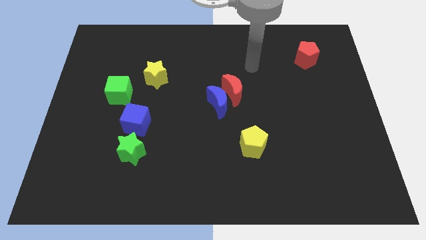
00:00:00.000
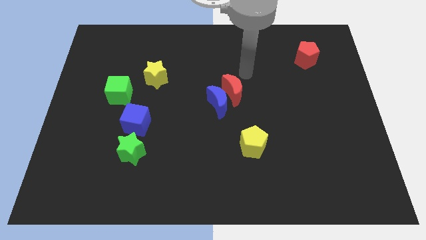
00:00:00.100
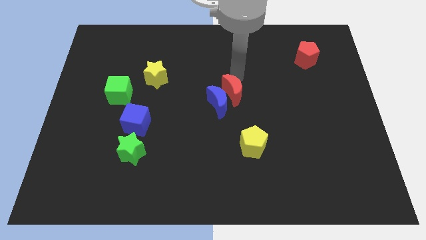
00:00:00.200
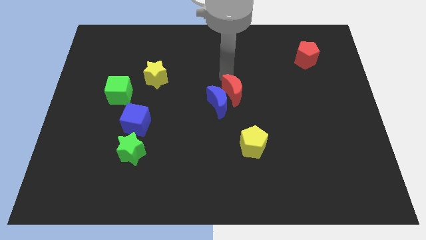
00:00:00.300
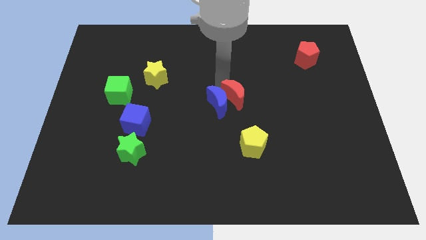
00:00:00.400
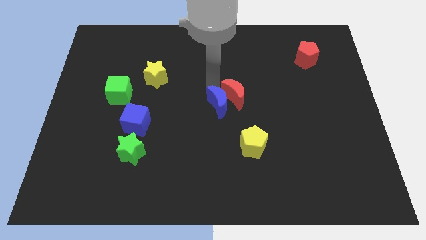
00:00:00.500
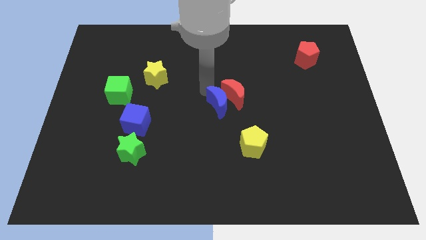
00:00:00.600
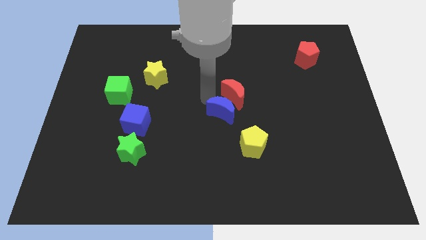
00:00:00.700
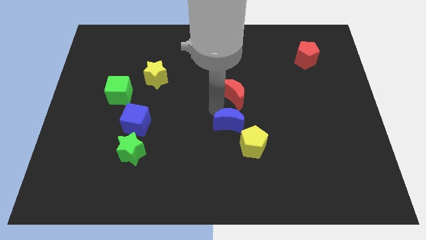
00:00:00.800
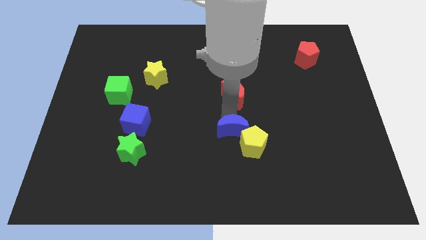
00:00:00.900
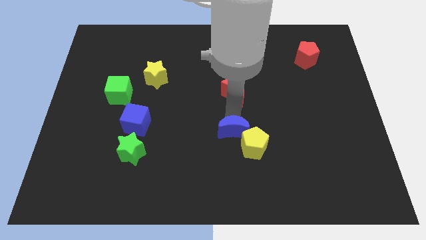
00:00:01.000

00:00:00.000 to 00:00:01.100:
move the red moon away from the blue moon

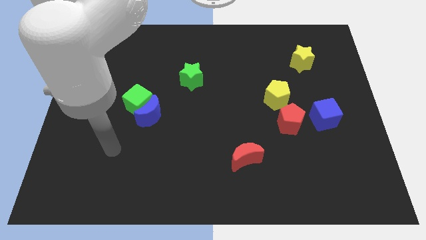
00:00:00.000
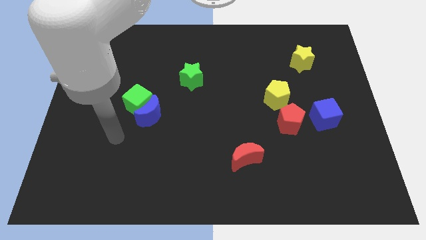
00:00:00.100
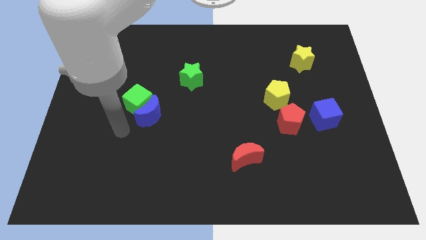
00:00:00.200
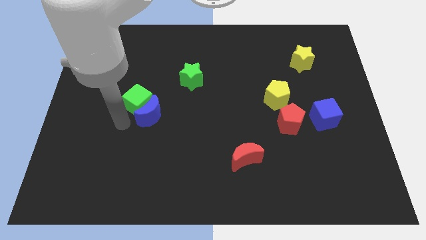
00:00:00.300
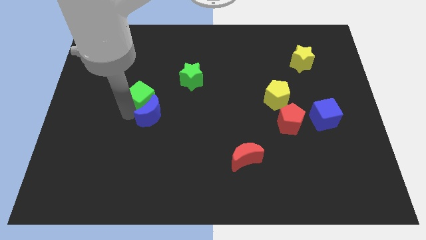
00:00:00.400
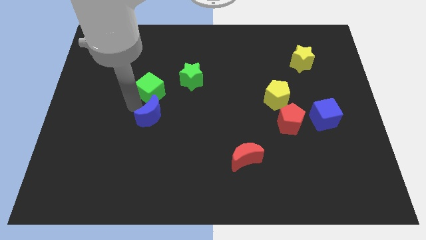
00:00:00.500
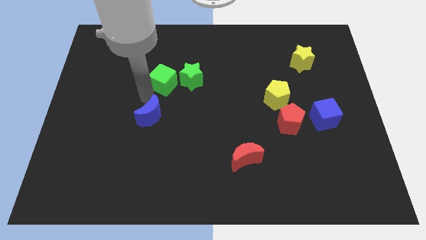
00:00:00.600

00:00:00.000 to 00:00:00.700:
move the blue moon away from the green cube

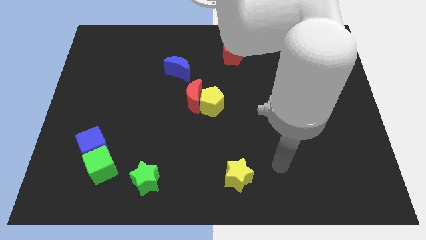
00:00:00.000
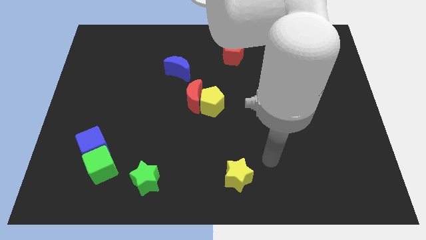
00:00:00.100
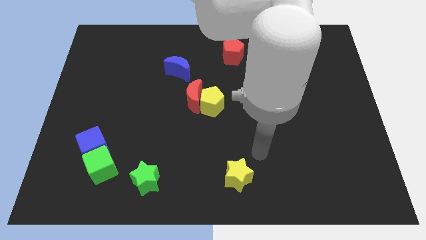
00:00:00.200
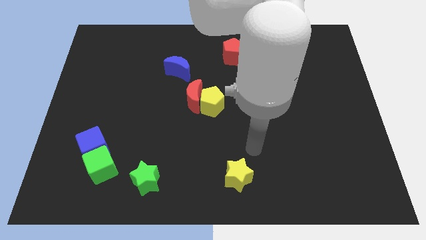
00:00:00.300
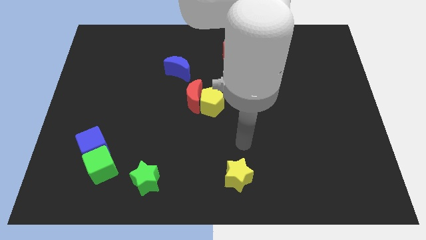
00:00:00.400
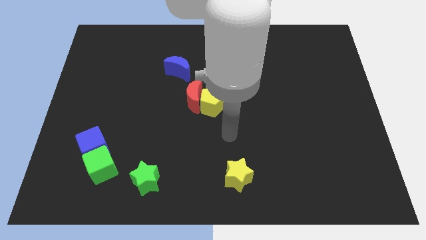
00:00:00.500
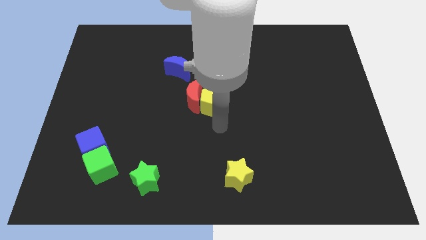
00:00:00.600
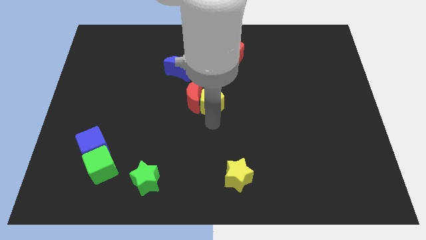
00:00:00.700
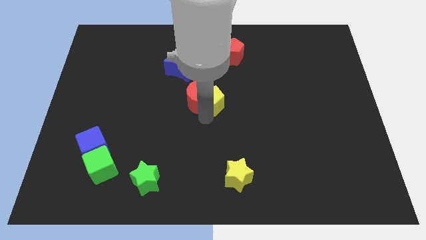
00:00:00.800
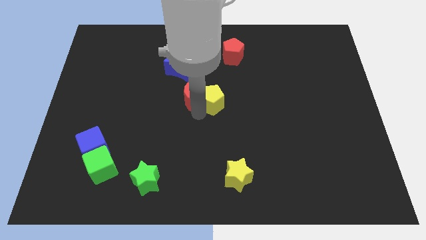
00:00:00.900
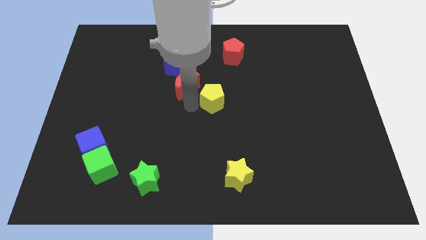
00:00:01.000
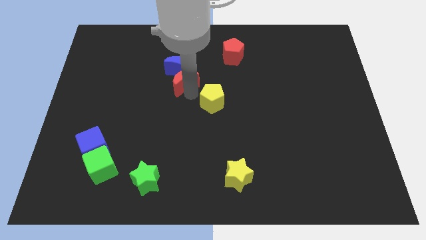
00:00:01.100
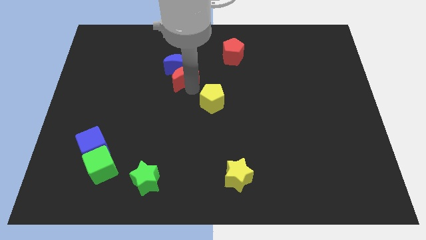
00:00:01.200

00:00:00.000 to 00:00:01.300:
pull the yellow pentagon apart from the red moon

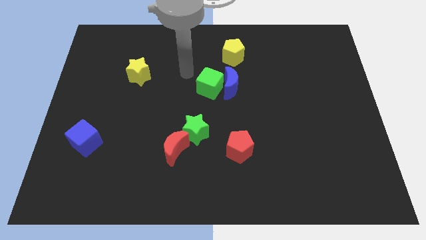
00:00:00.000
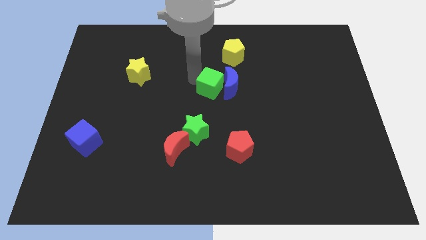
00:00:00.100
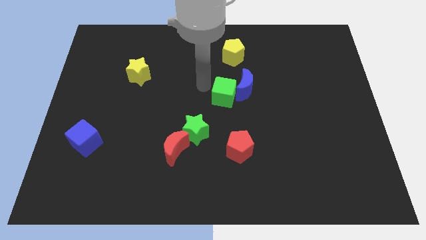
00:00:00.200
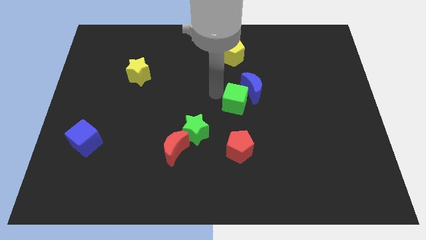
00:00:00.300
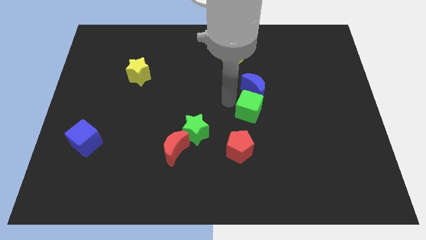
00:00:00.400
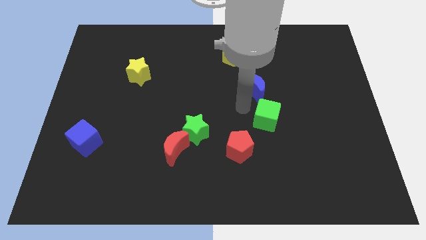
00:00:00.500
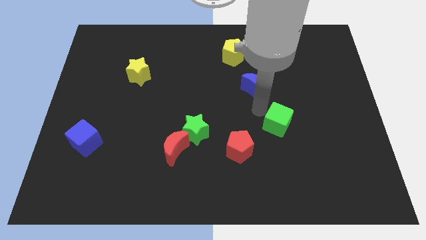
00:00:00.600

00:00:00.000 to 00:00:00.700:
separate the blue moon from the green cube

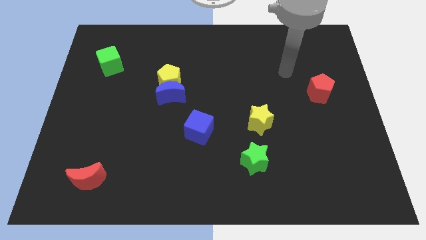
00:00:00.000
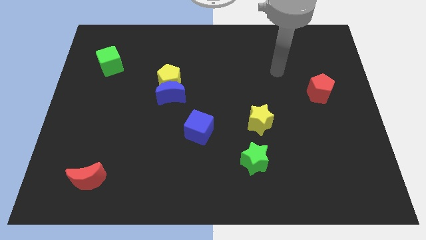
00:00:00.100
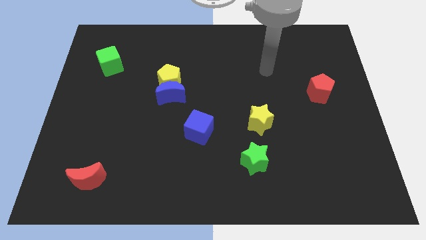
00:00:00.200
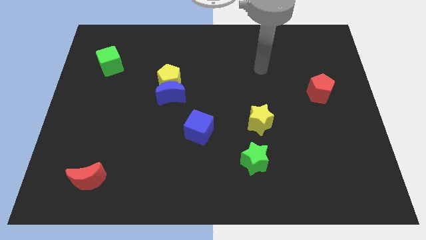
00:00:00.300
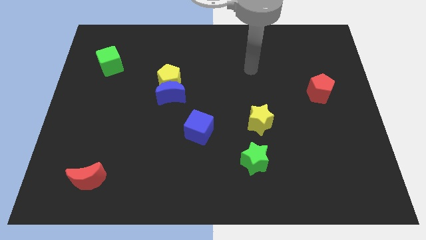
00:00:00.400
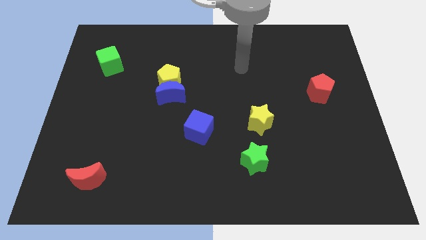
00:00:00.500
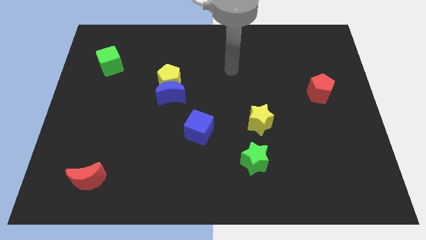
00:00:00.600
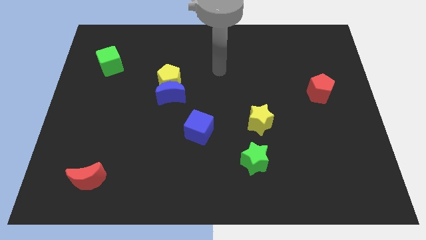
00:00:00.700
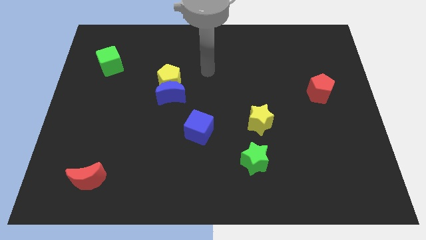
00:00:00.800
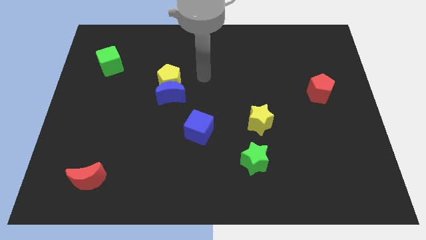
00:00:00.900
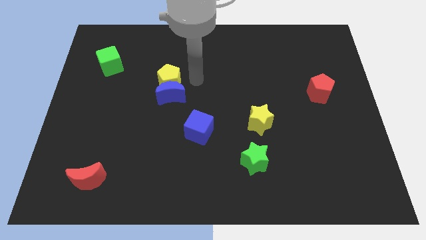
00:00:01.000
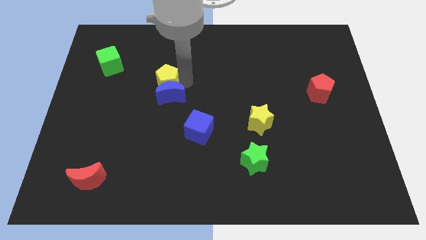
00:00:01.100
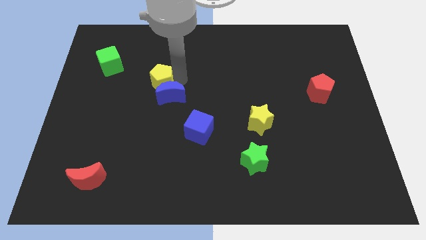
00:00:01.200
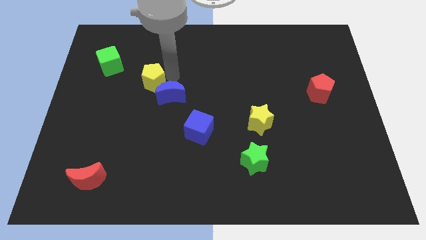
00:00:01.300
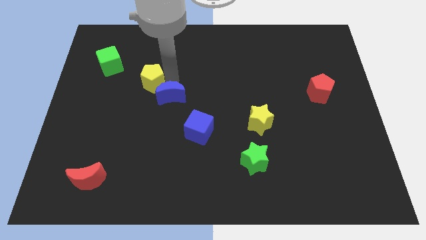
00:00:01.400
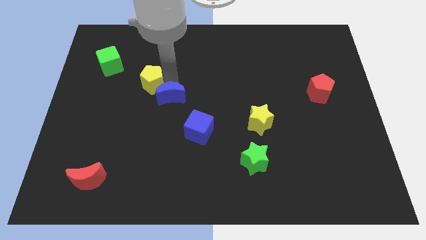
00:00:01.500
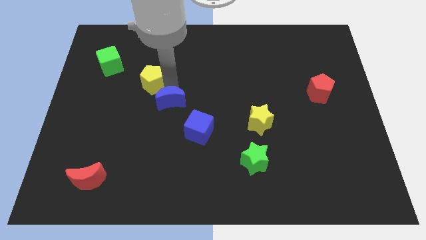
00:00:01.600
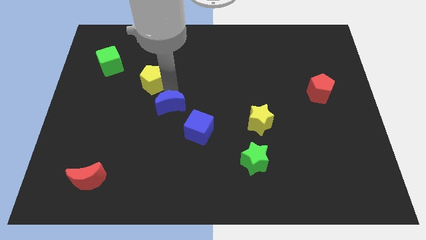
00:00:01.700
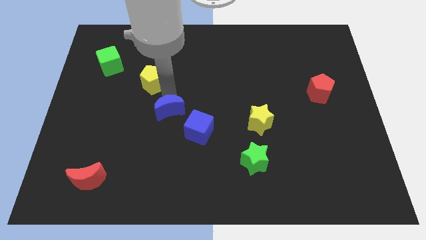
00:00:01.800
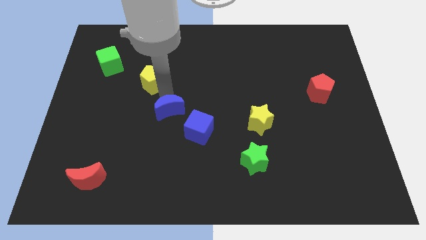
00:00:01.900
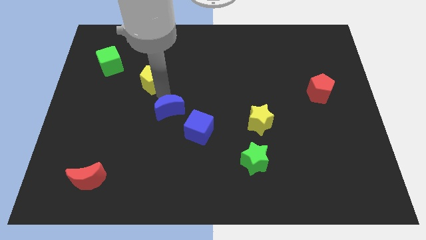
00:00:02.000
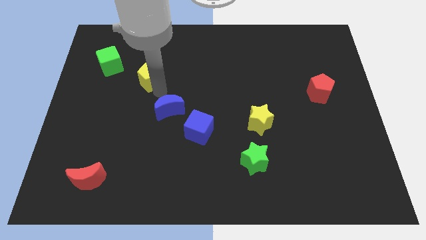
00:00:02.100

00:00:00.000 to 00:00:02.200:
pull the blue moon apart from the yellow pentagon

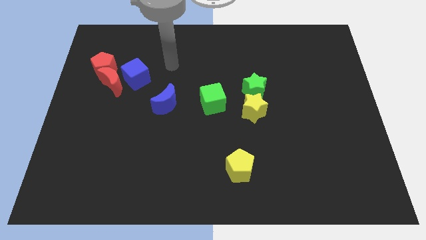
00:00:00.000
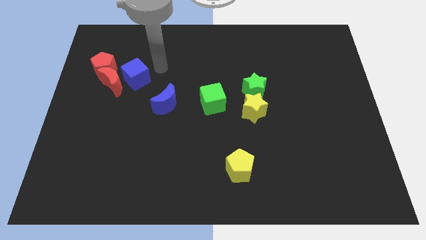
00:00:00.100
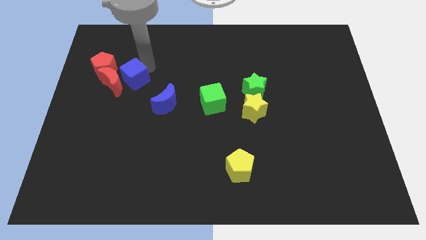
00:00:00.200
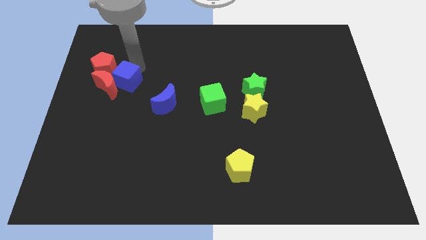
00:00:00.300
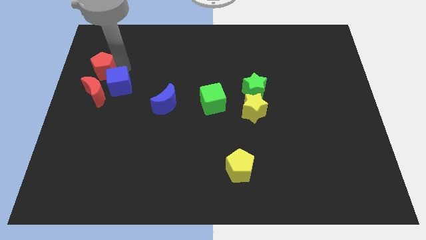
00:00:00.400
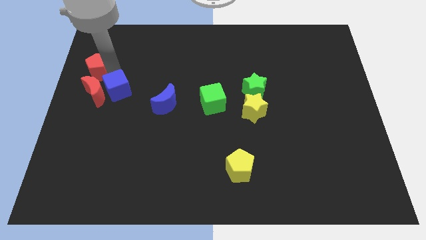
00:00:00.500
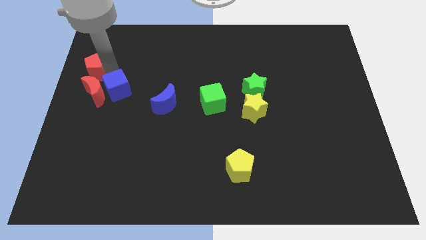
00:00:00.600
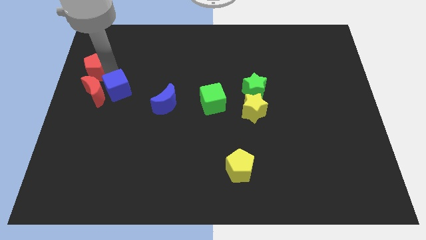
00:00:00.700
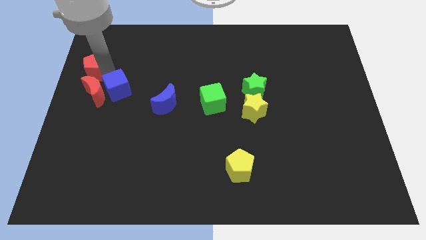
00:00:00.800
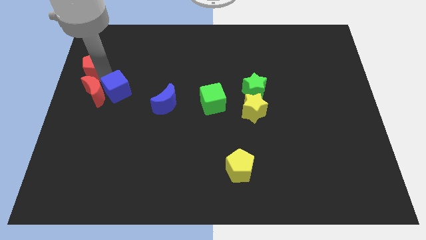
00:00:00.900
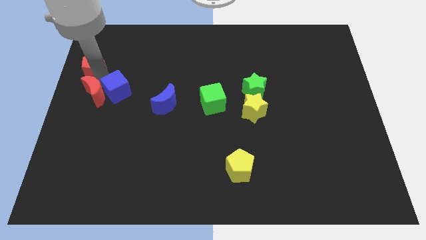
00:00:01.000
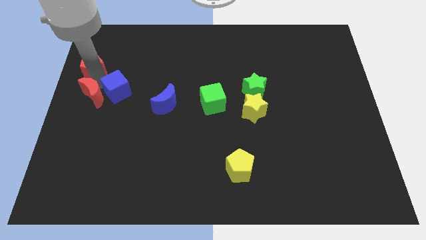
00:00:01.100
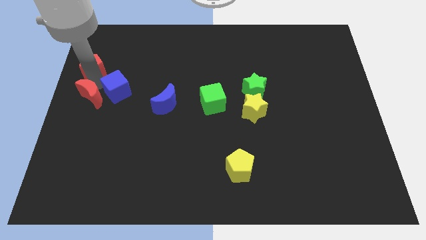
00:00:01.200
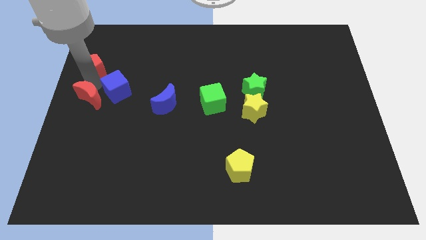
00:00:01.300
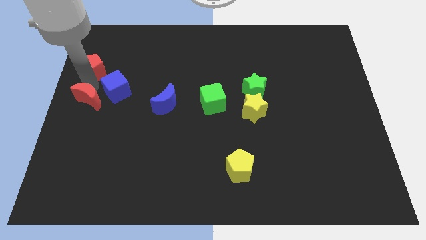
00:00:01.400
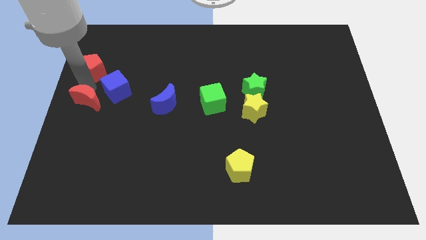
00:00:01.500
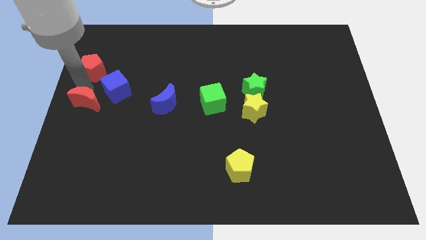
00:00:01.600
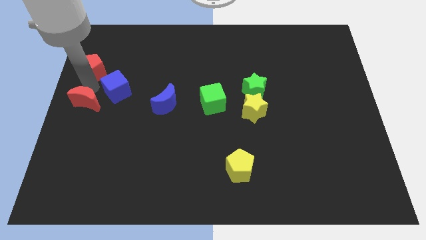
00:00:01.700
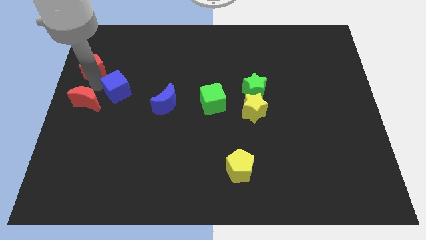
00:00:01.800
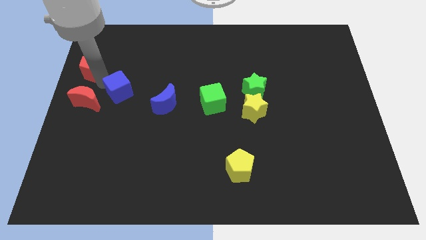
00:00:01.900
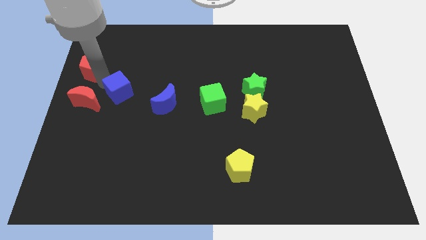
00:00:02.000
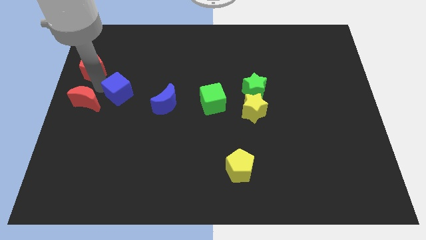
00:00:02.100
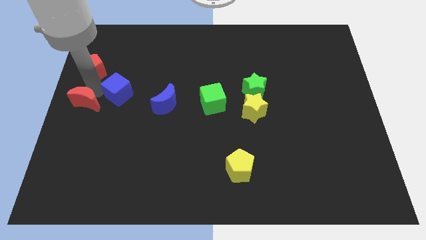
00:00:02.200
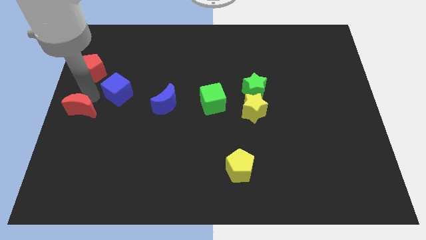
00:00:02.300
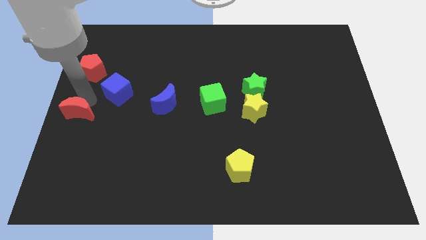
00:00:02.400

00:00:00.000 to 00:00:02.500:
move the red moon away from the red pentagon and blue cube

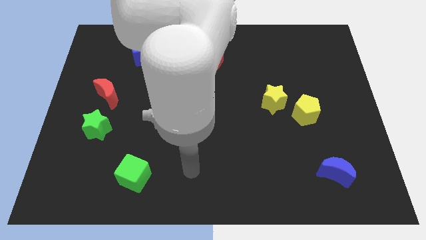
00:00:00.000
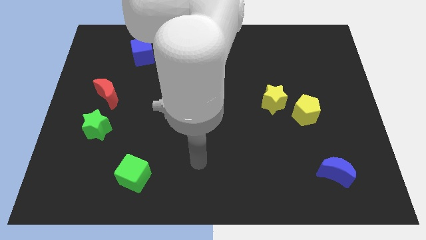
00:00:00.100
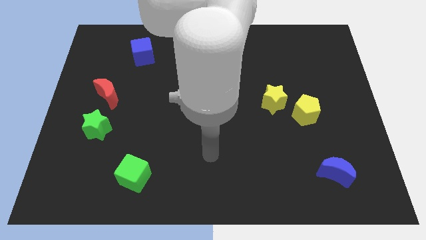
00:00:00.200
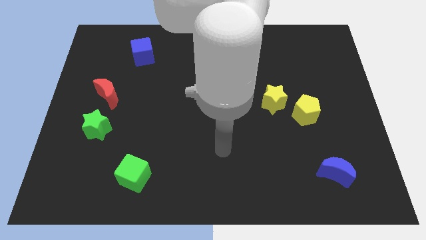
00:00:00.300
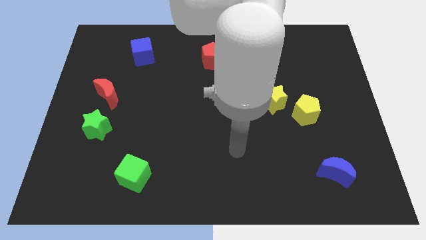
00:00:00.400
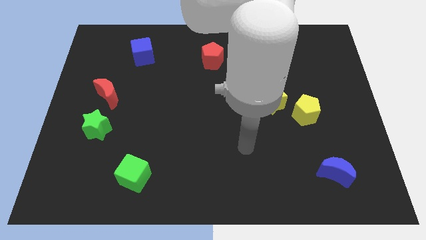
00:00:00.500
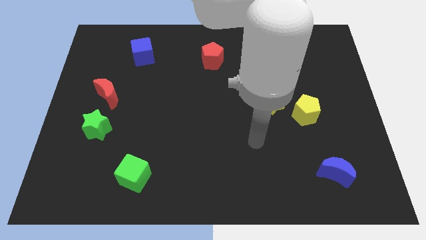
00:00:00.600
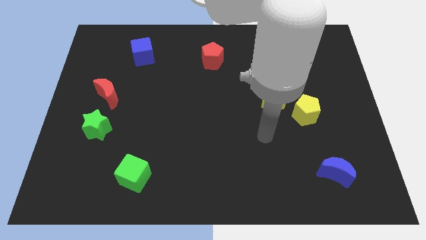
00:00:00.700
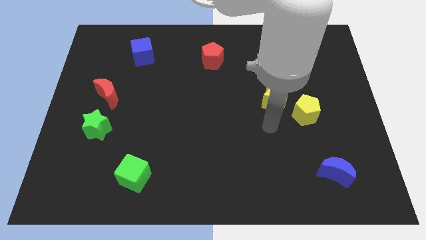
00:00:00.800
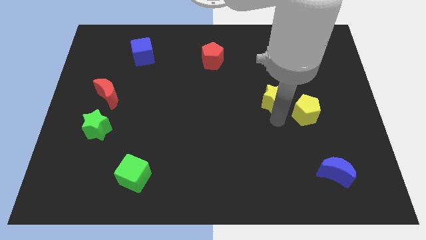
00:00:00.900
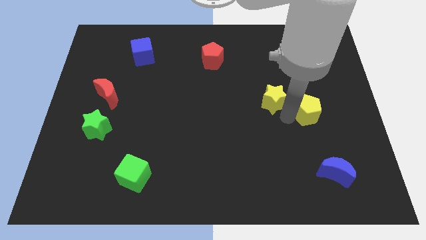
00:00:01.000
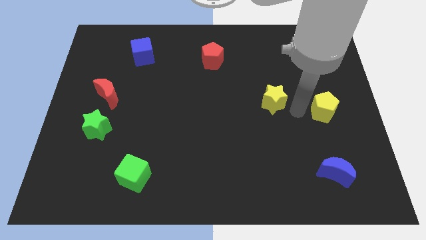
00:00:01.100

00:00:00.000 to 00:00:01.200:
move the yellow star away from the yellow pentagon
